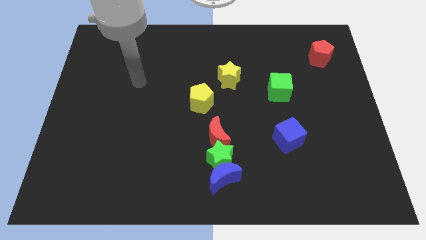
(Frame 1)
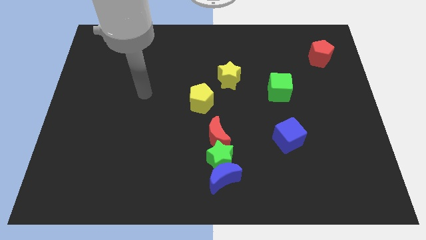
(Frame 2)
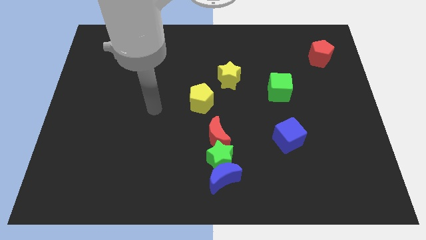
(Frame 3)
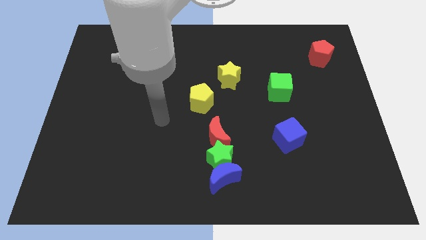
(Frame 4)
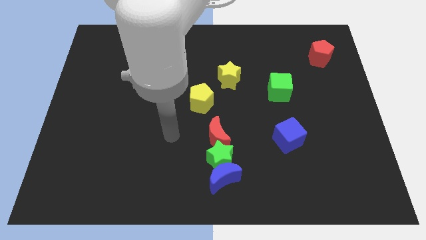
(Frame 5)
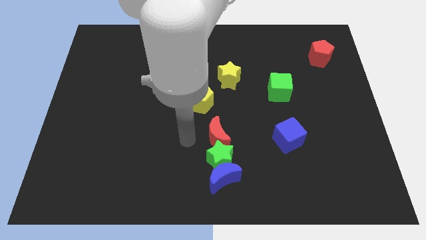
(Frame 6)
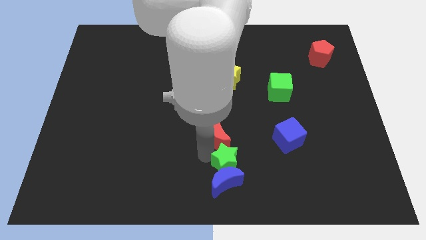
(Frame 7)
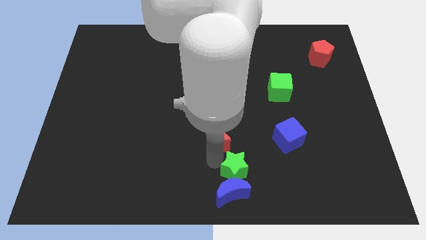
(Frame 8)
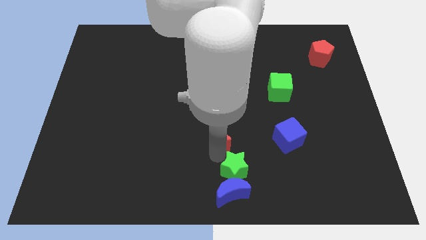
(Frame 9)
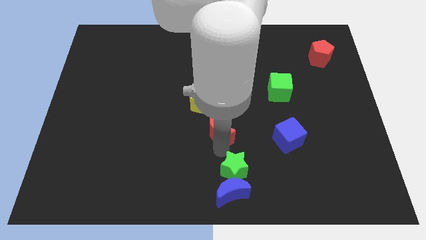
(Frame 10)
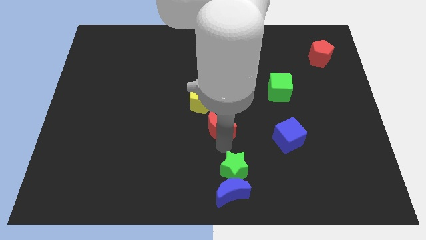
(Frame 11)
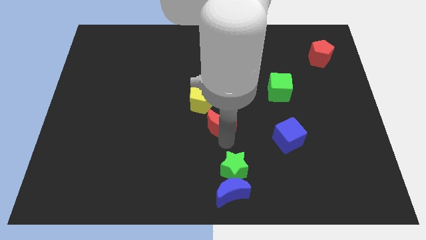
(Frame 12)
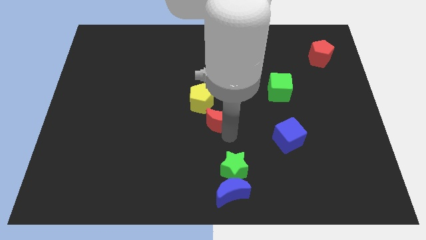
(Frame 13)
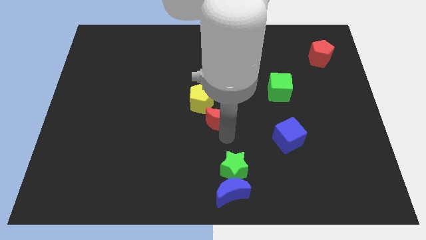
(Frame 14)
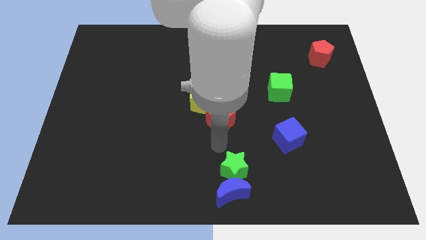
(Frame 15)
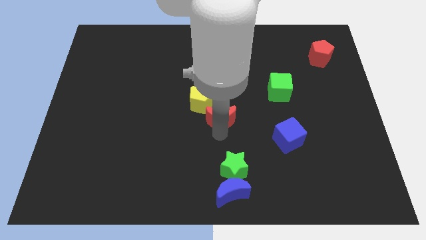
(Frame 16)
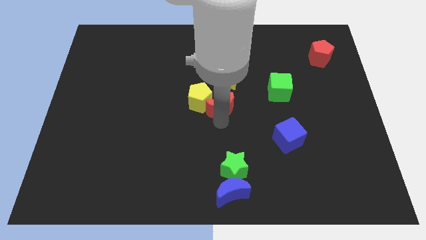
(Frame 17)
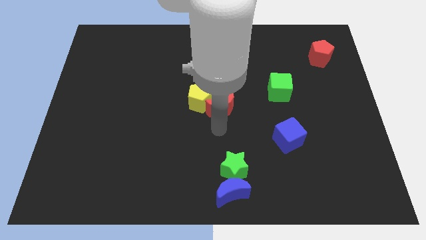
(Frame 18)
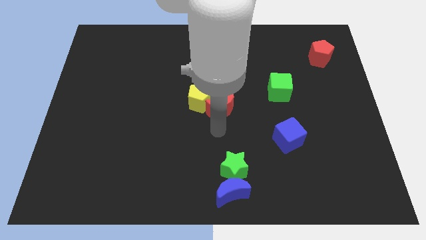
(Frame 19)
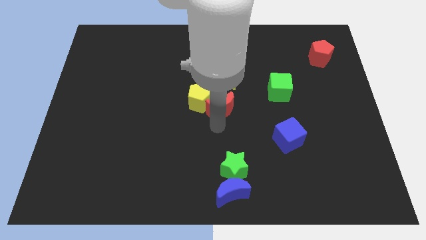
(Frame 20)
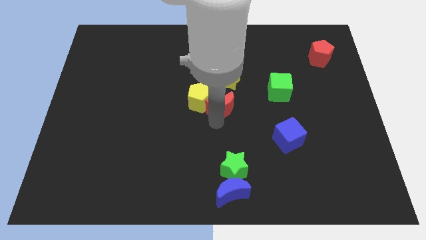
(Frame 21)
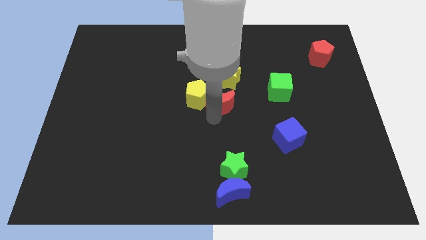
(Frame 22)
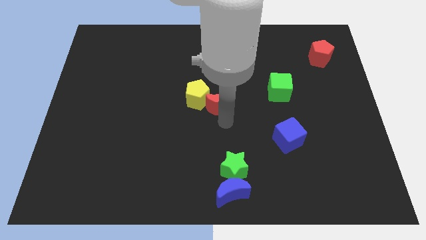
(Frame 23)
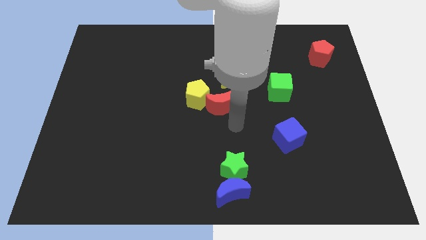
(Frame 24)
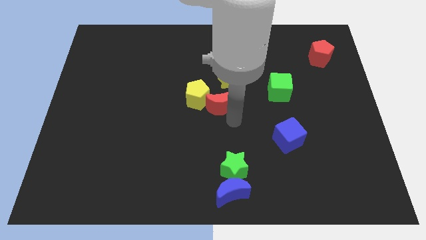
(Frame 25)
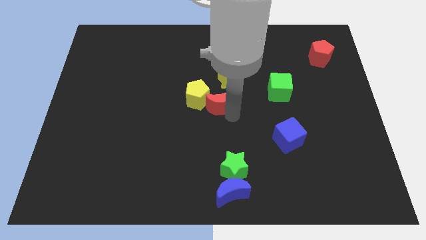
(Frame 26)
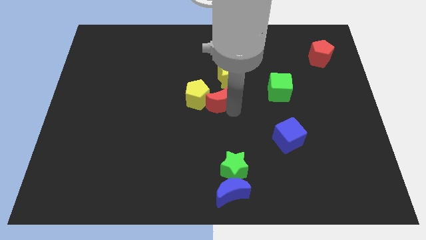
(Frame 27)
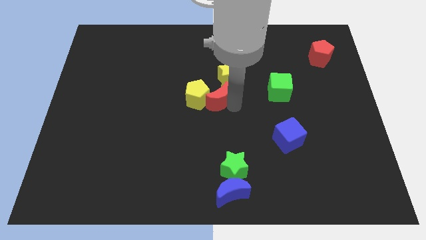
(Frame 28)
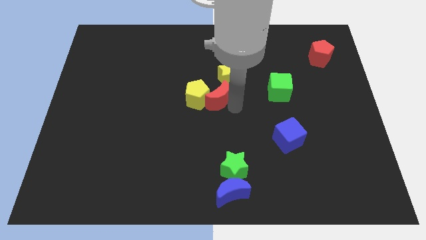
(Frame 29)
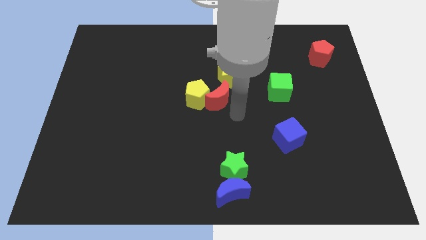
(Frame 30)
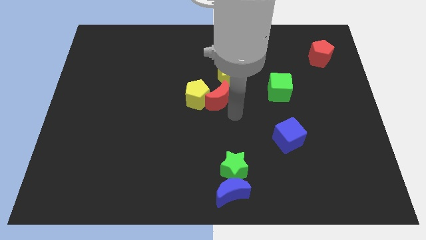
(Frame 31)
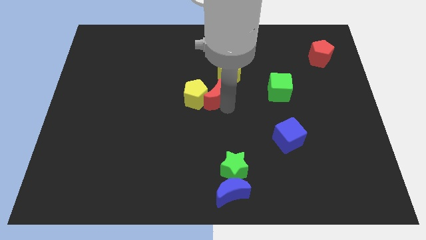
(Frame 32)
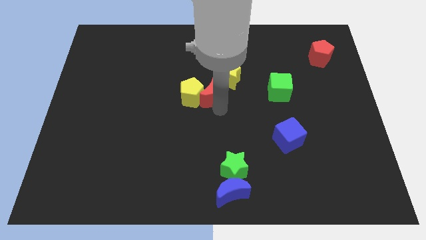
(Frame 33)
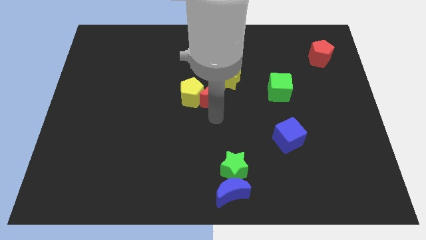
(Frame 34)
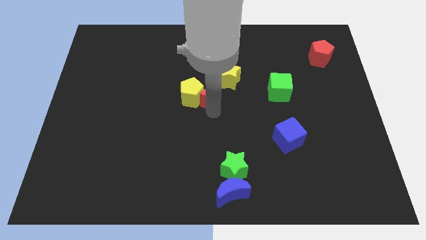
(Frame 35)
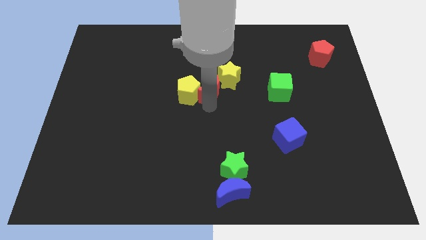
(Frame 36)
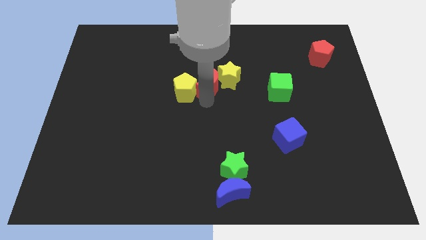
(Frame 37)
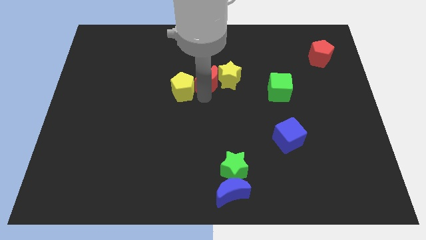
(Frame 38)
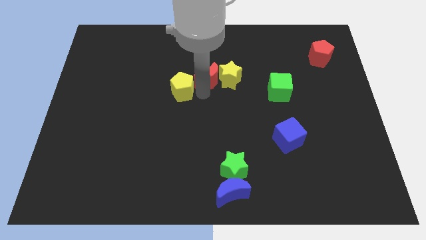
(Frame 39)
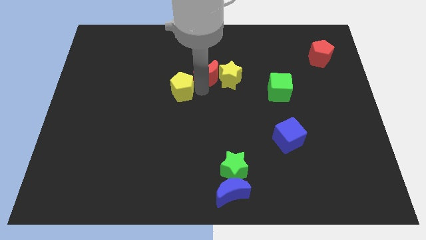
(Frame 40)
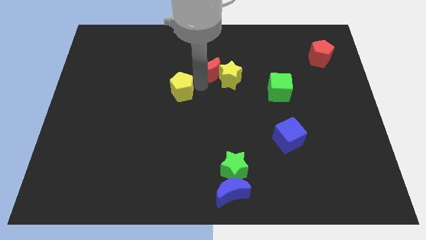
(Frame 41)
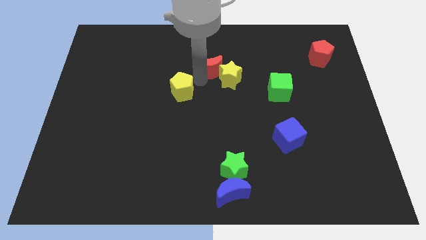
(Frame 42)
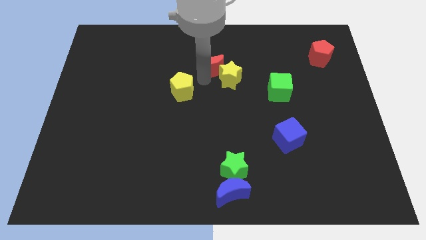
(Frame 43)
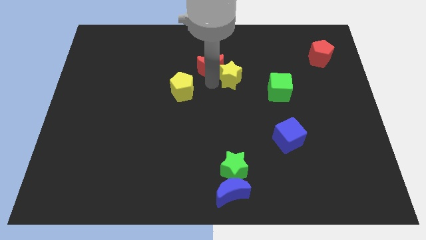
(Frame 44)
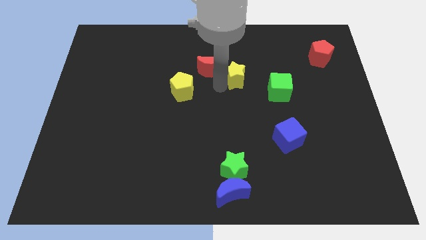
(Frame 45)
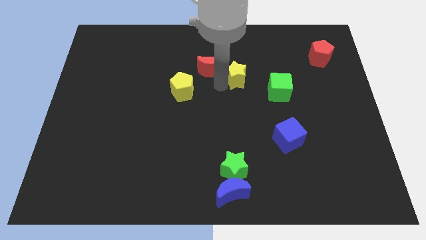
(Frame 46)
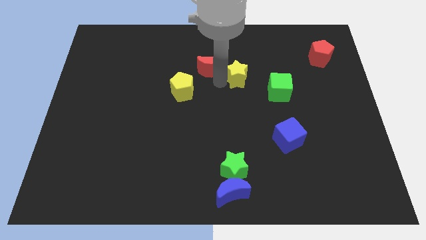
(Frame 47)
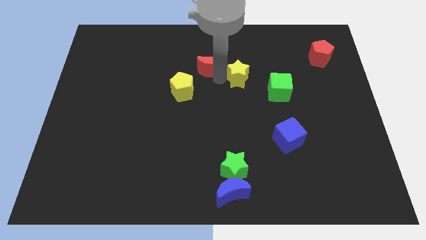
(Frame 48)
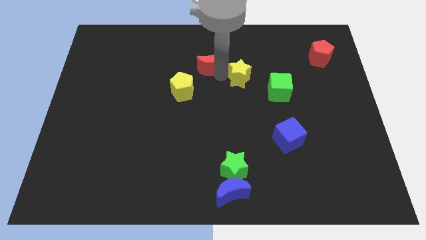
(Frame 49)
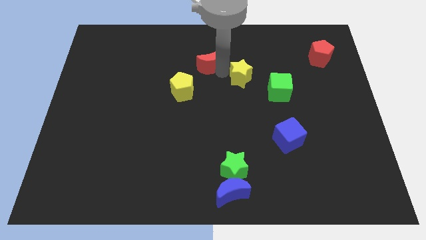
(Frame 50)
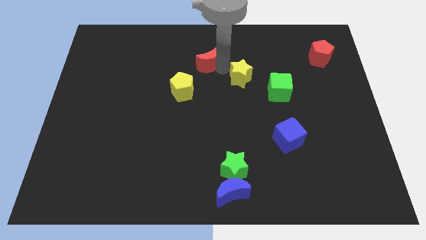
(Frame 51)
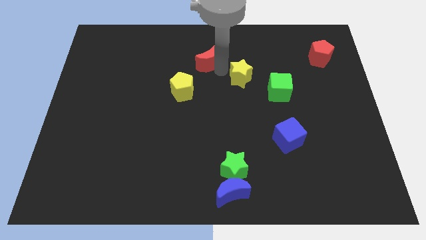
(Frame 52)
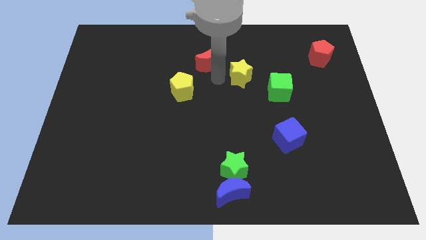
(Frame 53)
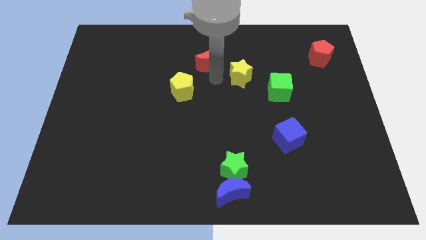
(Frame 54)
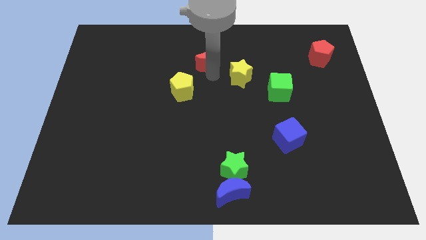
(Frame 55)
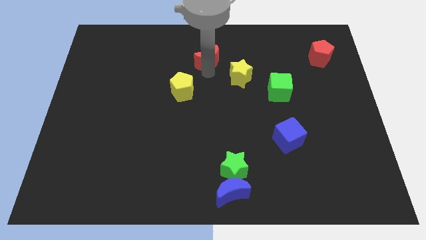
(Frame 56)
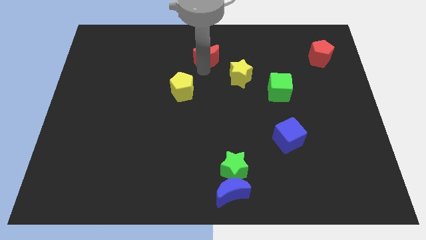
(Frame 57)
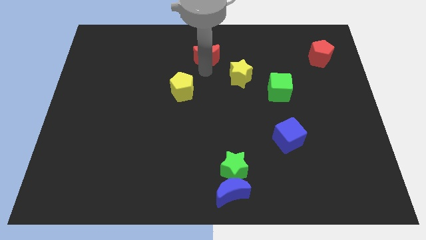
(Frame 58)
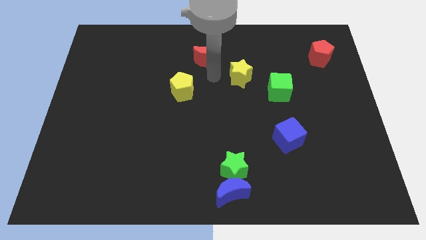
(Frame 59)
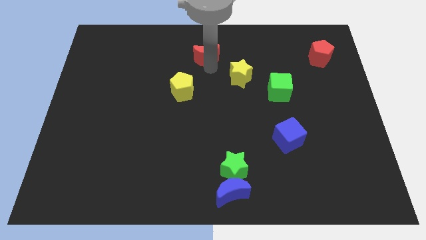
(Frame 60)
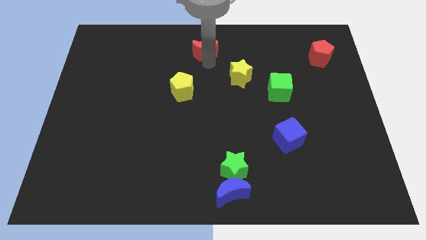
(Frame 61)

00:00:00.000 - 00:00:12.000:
slide the red moon to the top
